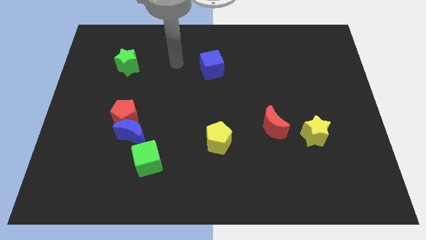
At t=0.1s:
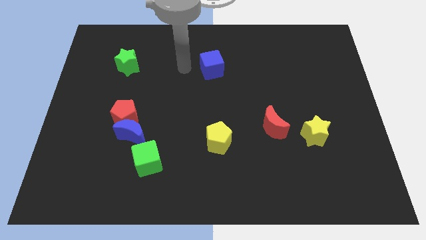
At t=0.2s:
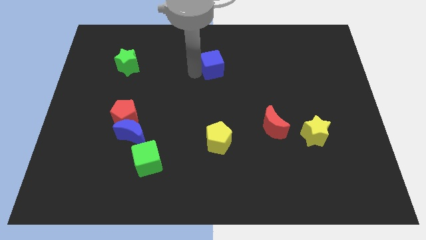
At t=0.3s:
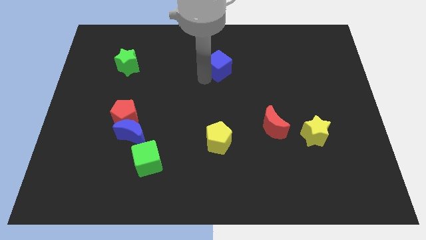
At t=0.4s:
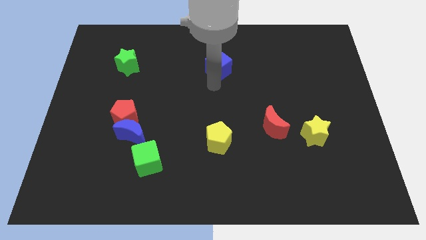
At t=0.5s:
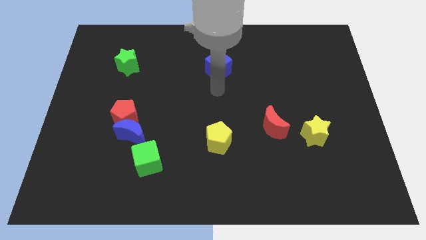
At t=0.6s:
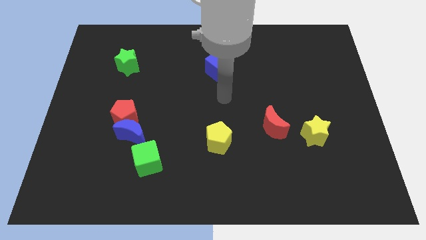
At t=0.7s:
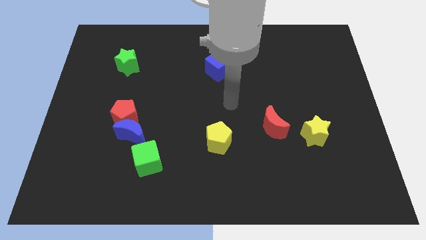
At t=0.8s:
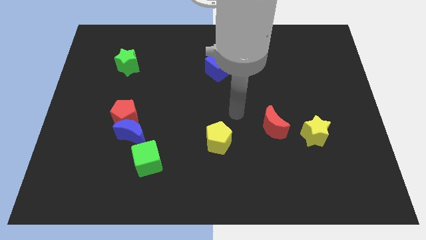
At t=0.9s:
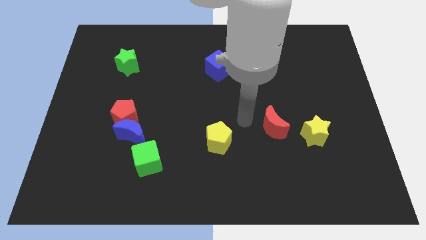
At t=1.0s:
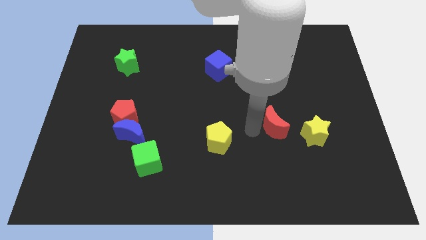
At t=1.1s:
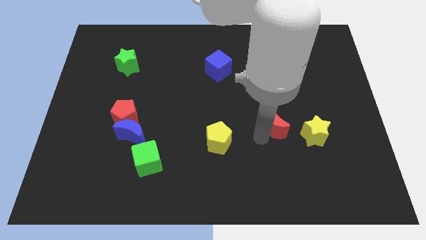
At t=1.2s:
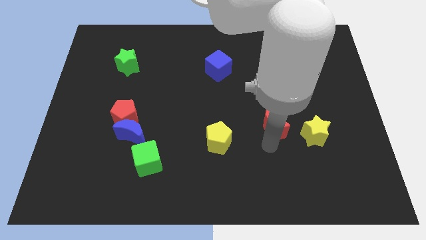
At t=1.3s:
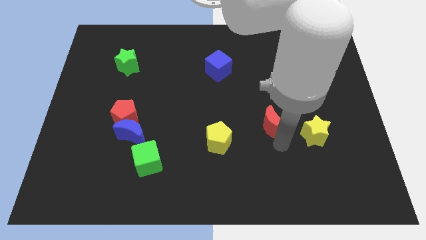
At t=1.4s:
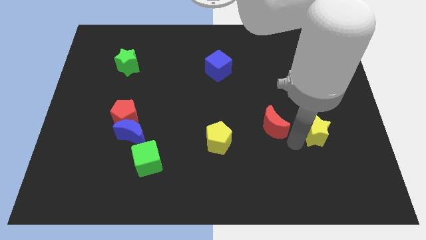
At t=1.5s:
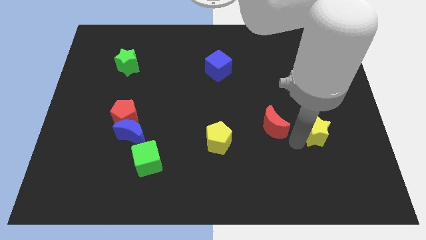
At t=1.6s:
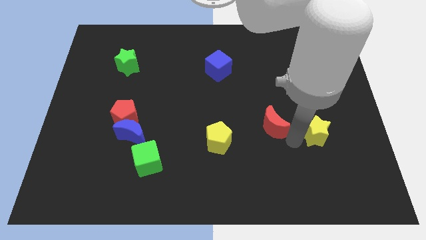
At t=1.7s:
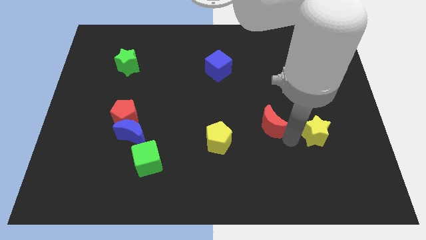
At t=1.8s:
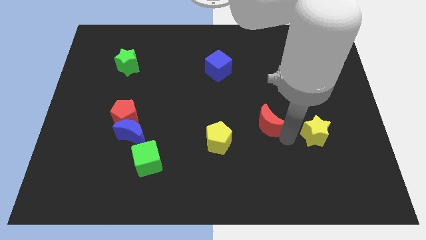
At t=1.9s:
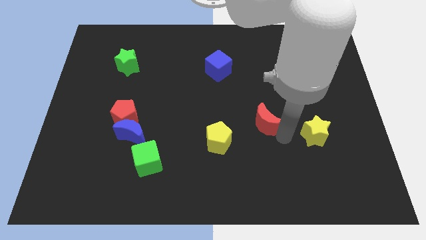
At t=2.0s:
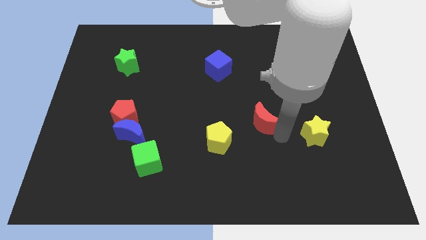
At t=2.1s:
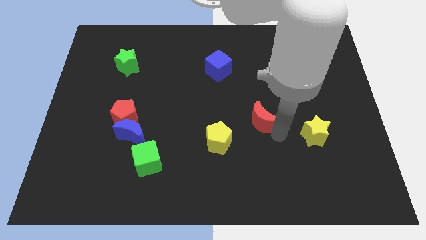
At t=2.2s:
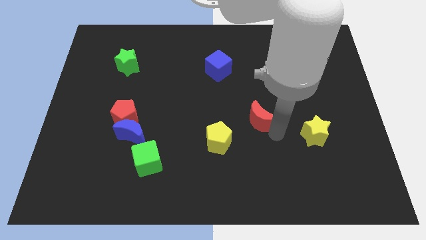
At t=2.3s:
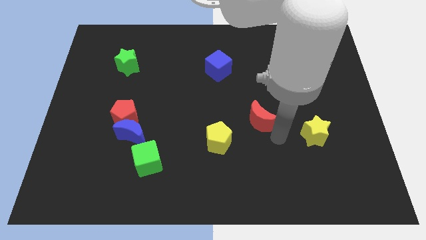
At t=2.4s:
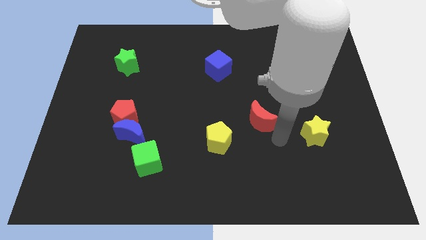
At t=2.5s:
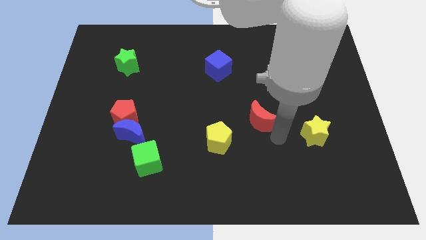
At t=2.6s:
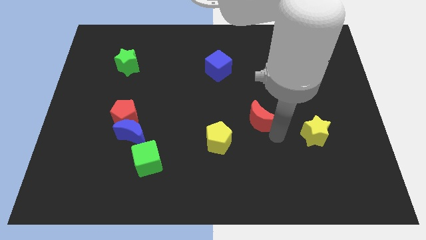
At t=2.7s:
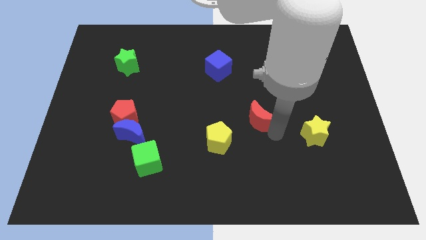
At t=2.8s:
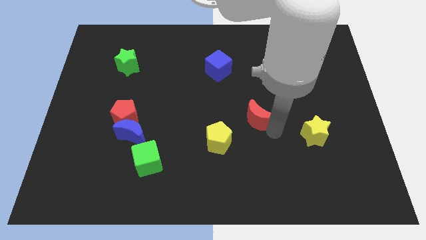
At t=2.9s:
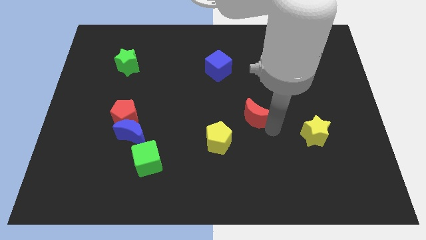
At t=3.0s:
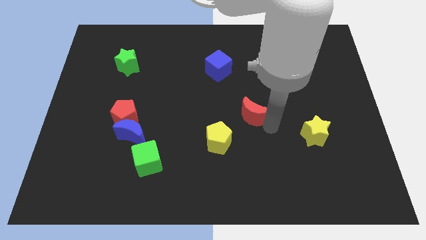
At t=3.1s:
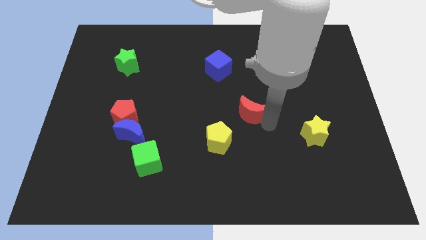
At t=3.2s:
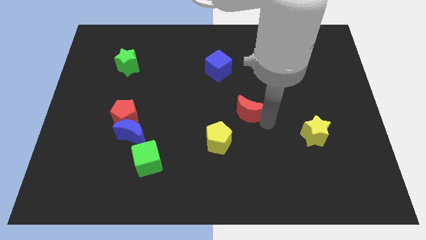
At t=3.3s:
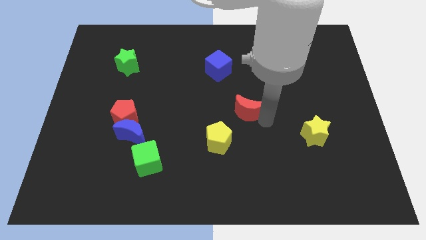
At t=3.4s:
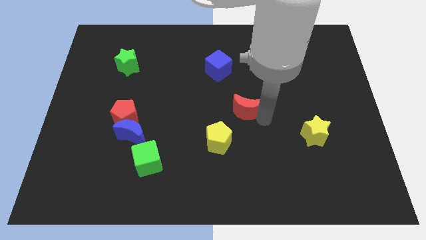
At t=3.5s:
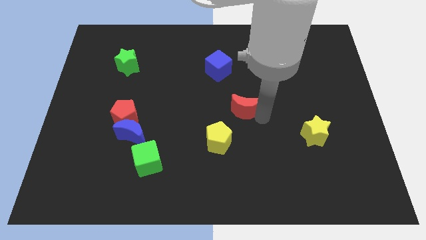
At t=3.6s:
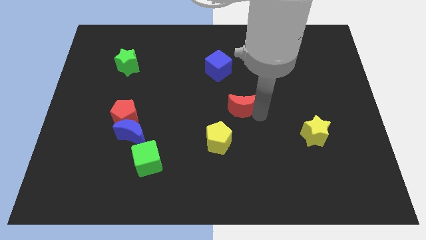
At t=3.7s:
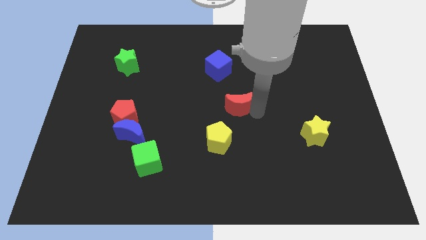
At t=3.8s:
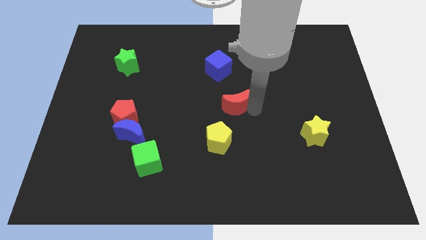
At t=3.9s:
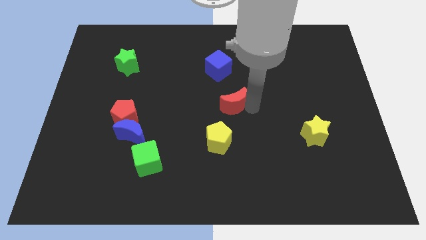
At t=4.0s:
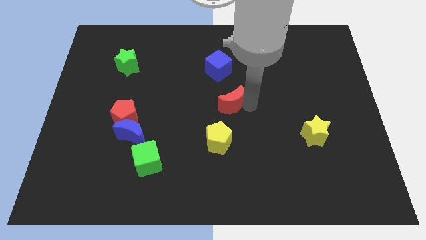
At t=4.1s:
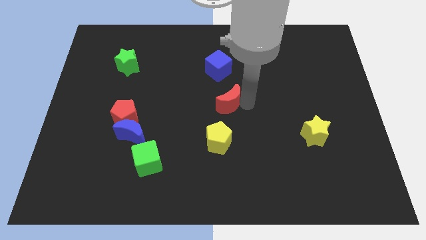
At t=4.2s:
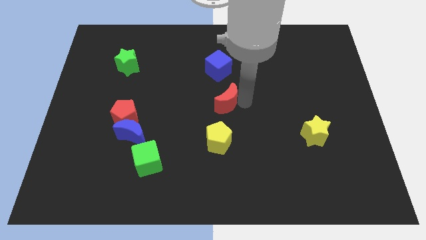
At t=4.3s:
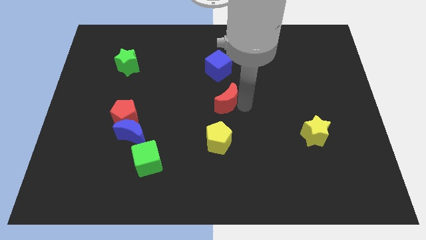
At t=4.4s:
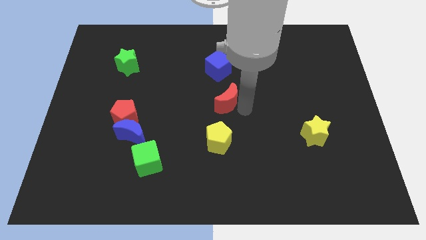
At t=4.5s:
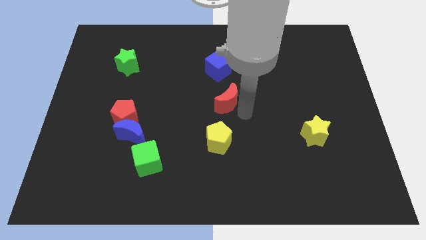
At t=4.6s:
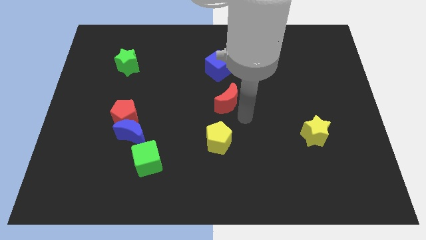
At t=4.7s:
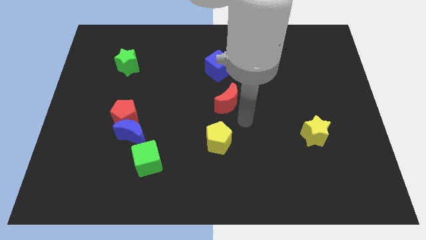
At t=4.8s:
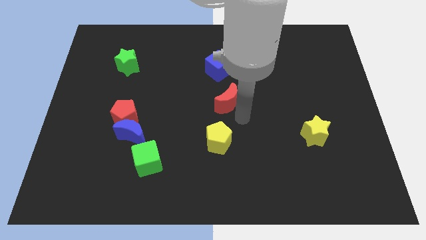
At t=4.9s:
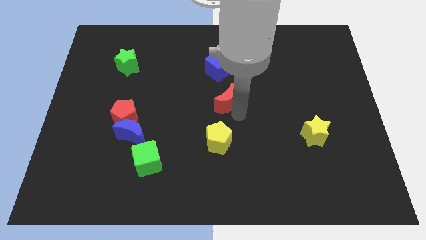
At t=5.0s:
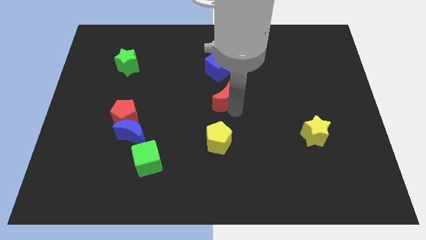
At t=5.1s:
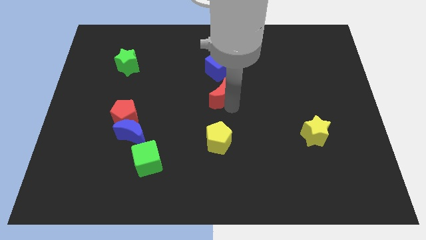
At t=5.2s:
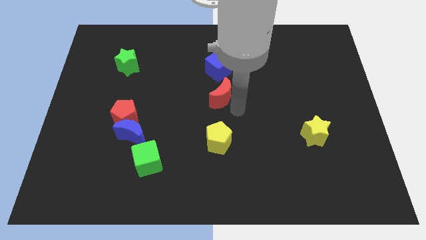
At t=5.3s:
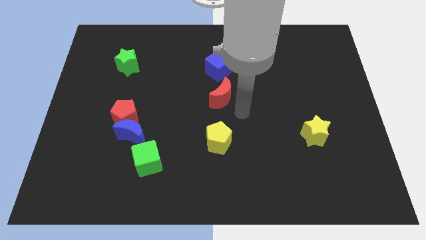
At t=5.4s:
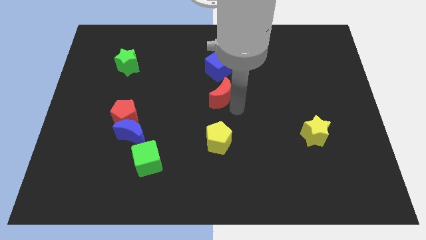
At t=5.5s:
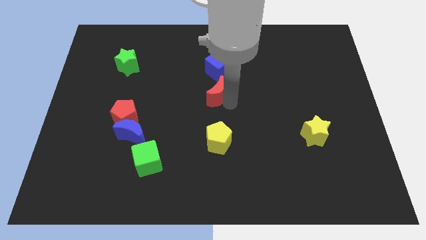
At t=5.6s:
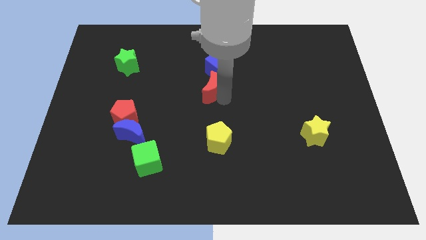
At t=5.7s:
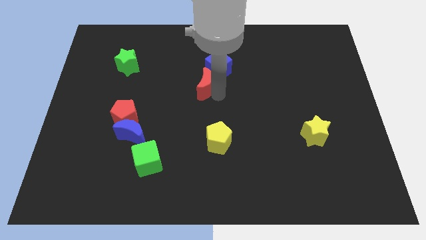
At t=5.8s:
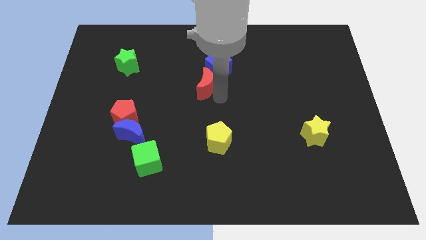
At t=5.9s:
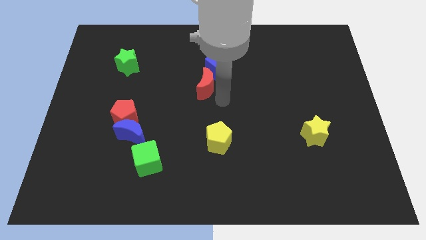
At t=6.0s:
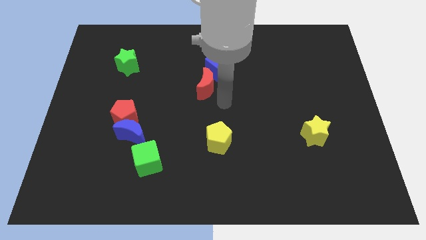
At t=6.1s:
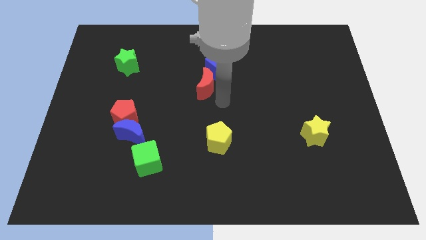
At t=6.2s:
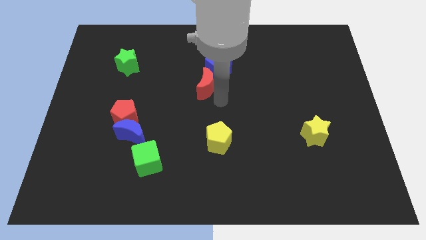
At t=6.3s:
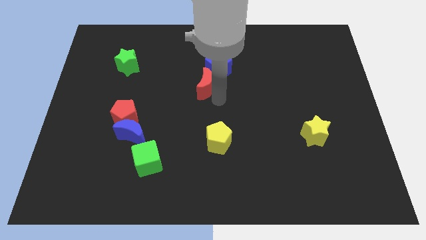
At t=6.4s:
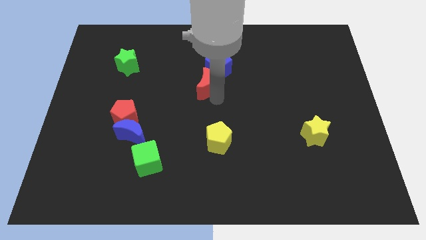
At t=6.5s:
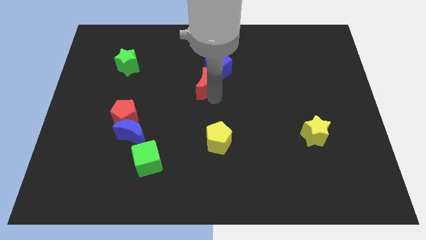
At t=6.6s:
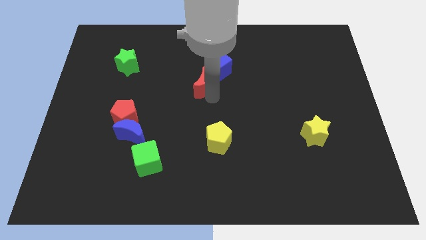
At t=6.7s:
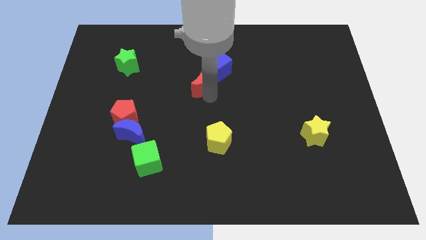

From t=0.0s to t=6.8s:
push the red moon diagonally upwards and to the left

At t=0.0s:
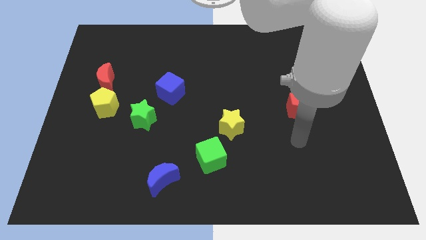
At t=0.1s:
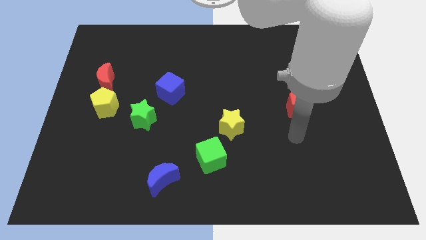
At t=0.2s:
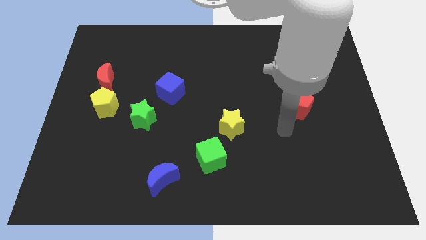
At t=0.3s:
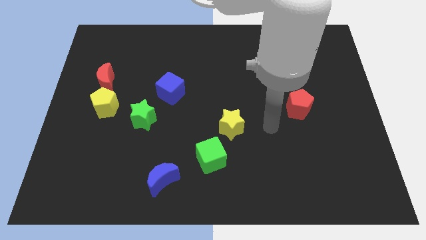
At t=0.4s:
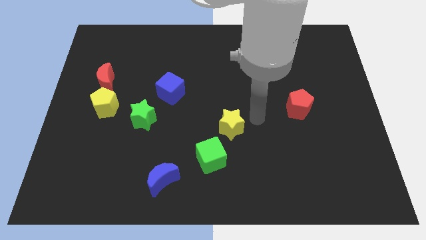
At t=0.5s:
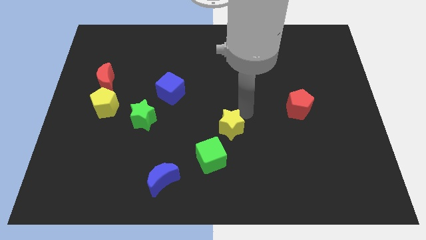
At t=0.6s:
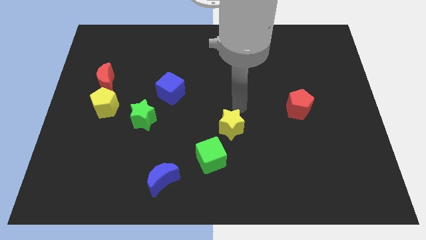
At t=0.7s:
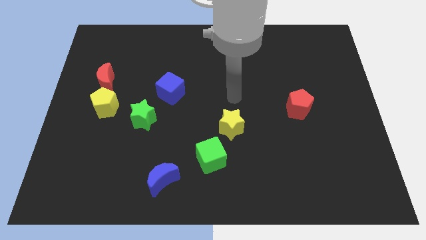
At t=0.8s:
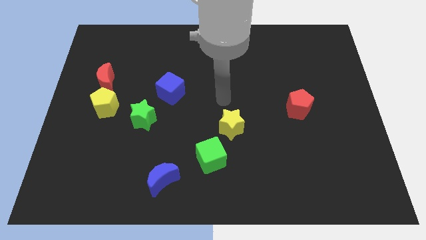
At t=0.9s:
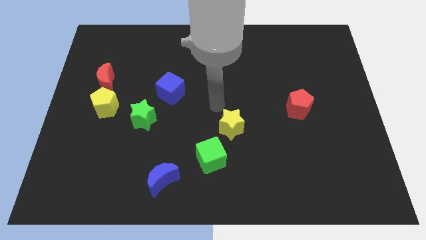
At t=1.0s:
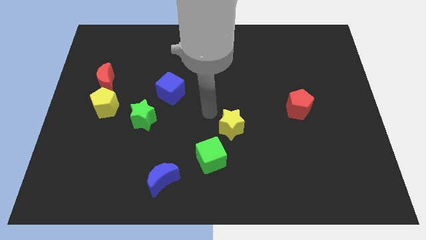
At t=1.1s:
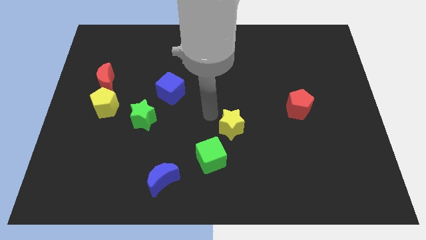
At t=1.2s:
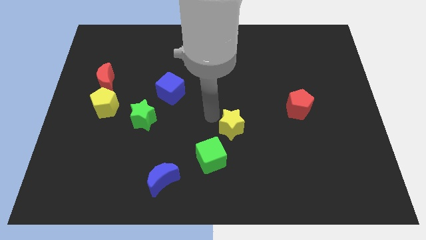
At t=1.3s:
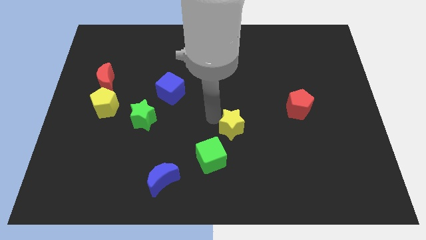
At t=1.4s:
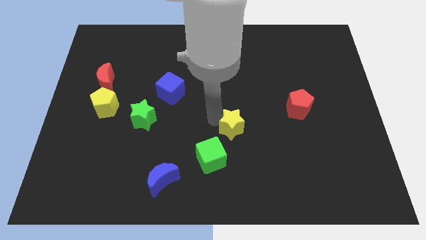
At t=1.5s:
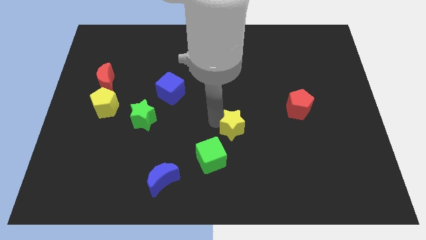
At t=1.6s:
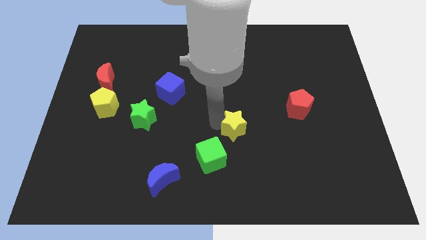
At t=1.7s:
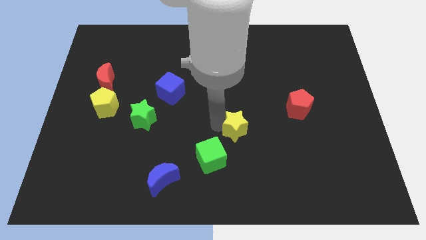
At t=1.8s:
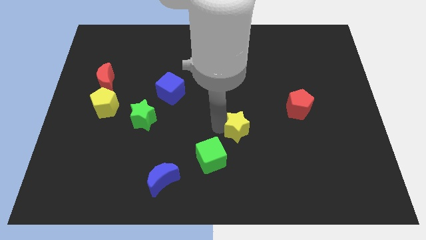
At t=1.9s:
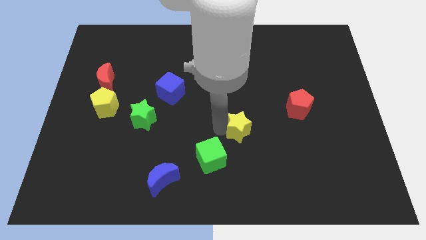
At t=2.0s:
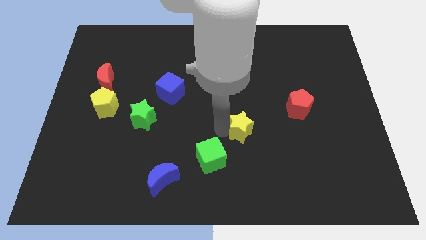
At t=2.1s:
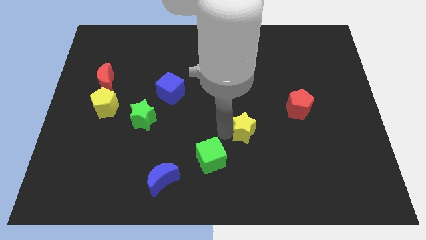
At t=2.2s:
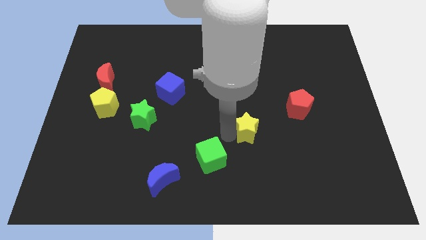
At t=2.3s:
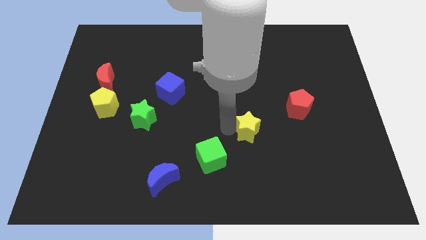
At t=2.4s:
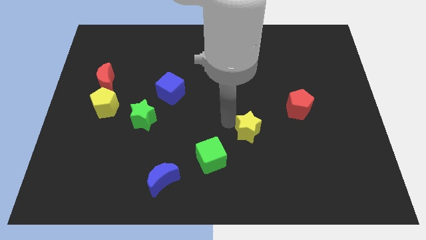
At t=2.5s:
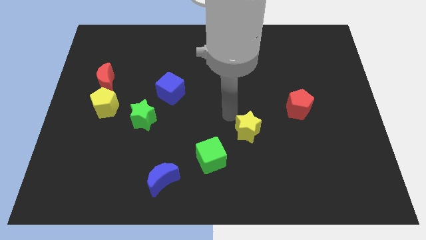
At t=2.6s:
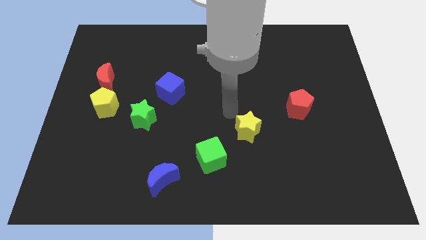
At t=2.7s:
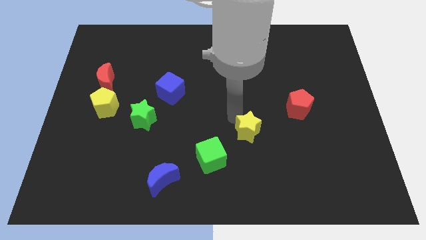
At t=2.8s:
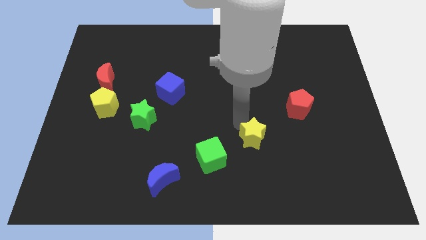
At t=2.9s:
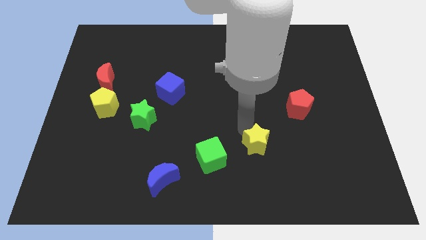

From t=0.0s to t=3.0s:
push the yellow star down and to the right somewhat
